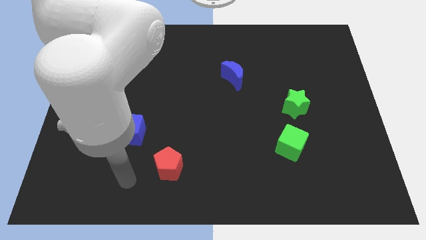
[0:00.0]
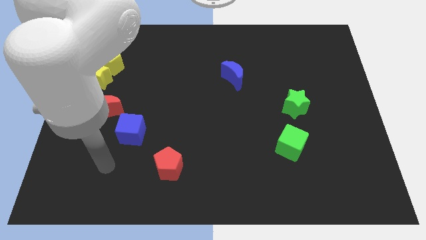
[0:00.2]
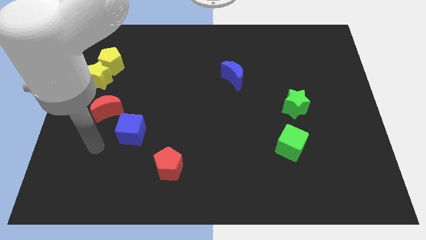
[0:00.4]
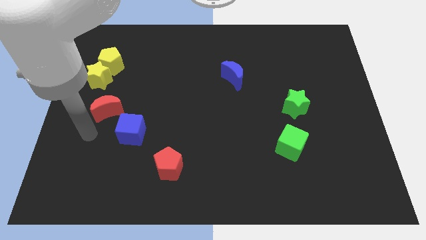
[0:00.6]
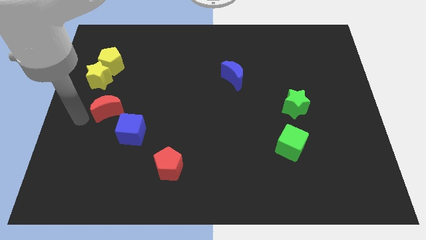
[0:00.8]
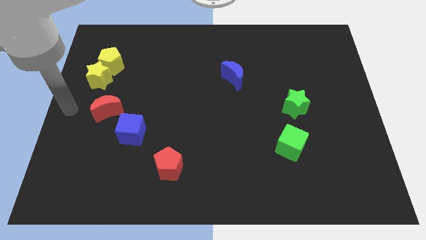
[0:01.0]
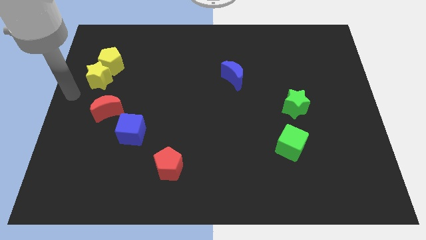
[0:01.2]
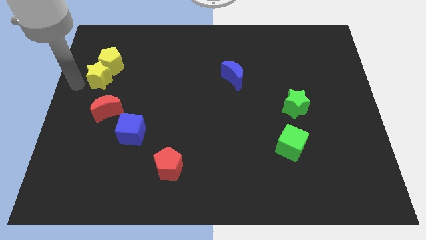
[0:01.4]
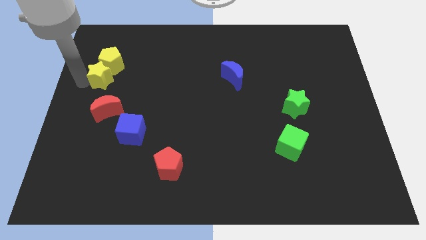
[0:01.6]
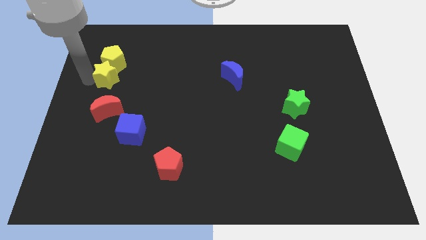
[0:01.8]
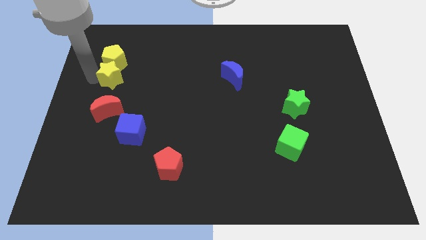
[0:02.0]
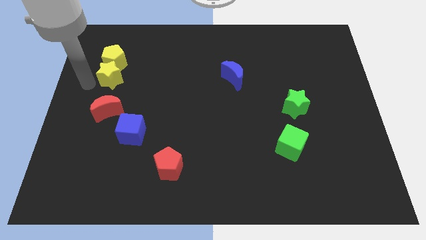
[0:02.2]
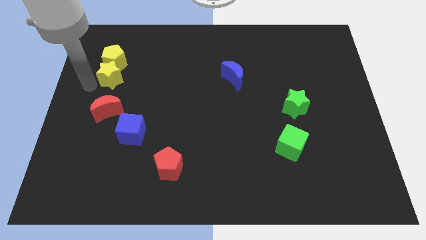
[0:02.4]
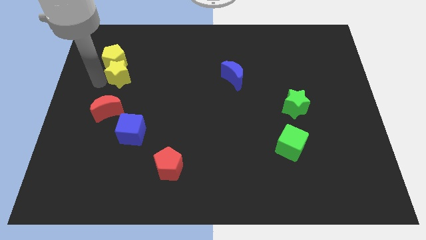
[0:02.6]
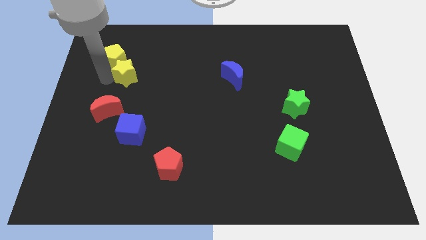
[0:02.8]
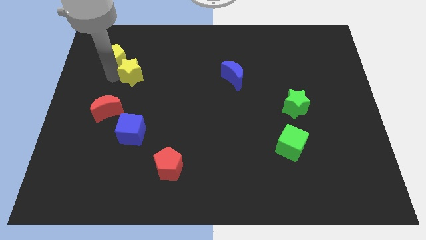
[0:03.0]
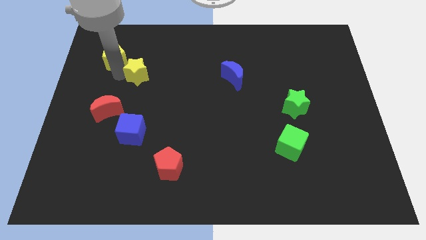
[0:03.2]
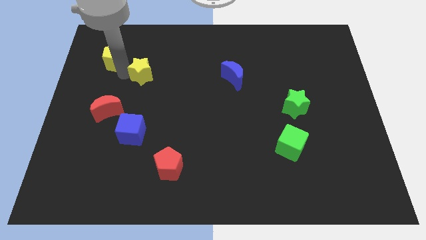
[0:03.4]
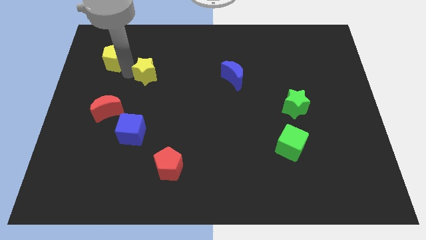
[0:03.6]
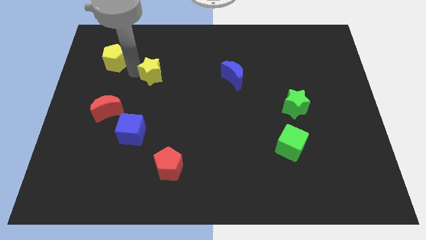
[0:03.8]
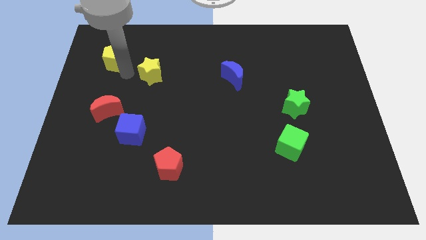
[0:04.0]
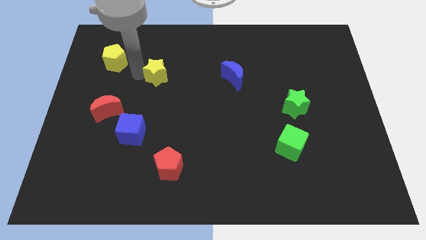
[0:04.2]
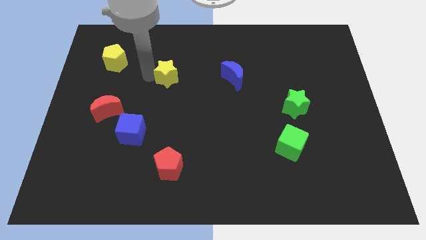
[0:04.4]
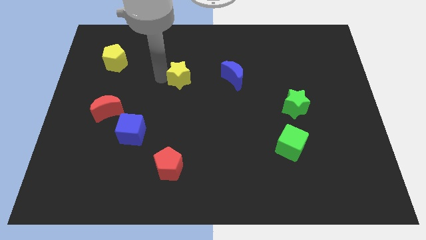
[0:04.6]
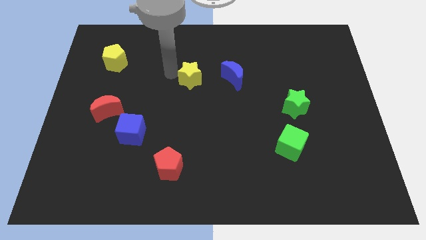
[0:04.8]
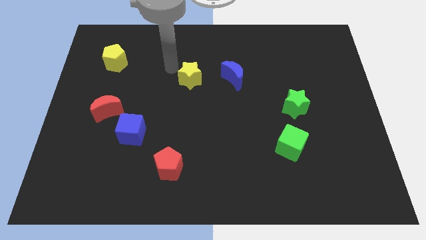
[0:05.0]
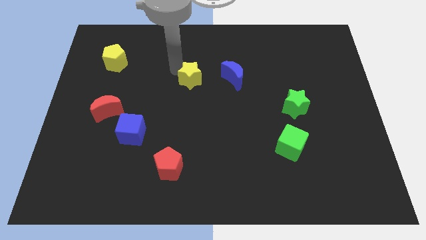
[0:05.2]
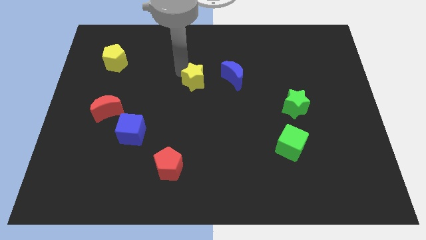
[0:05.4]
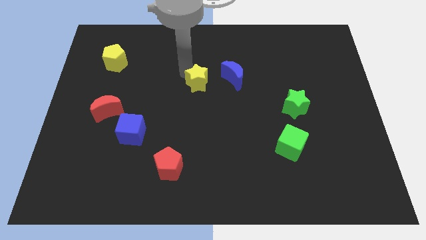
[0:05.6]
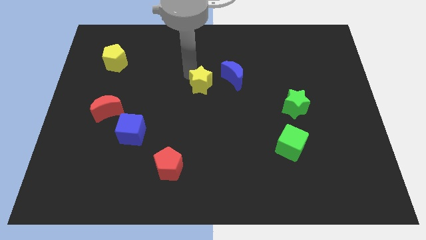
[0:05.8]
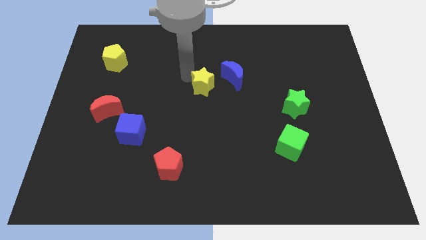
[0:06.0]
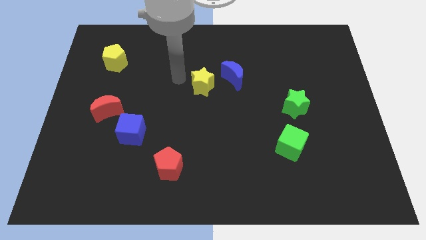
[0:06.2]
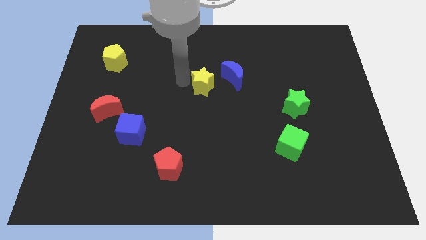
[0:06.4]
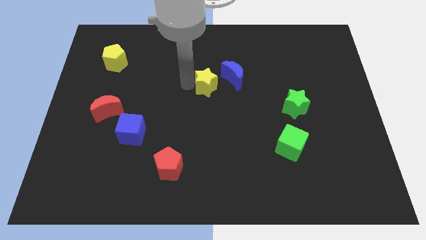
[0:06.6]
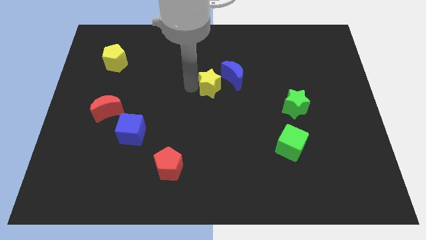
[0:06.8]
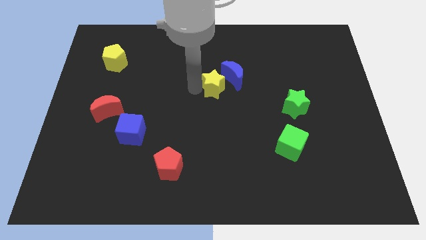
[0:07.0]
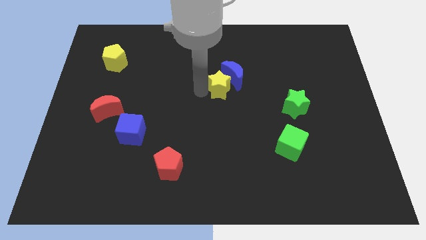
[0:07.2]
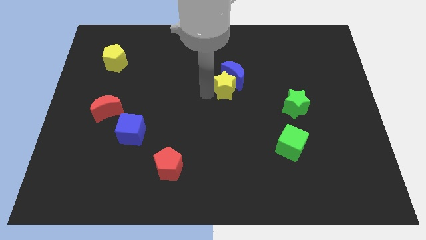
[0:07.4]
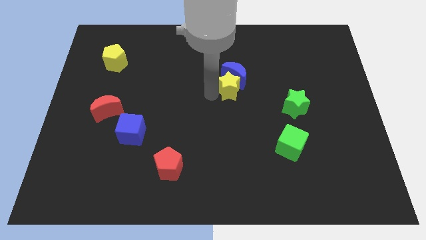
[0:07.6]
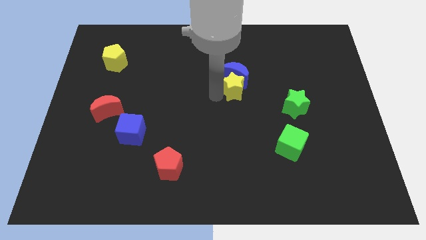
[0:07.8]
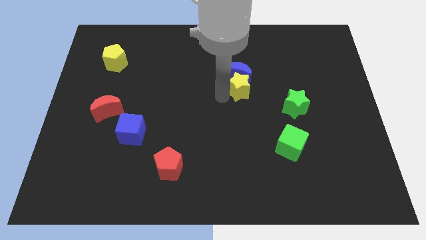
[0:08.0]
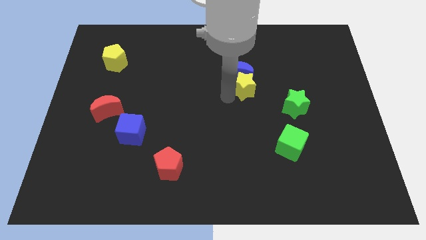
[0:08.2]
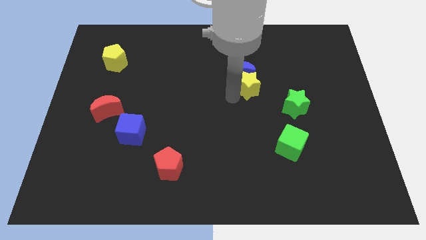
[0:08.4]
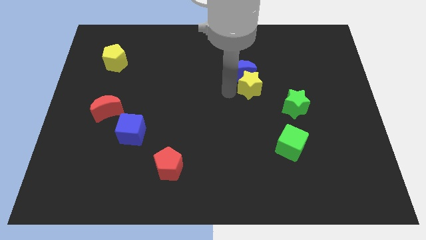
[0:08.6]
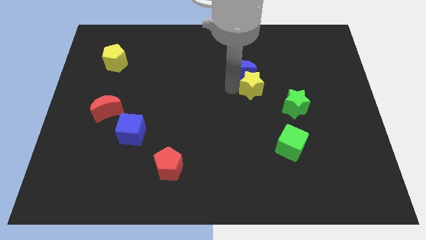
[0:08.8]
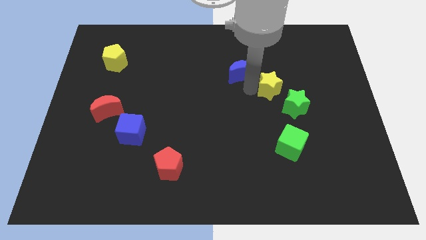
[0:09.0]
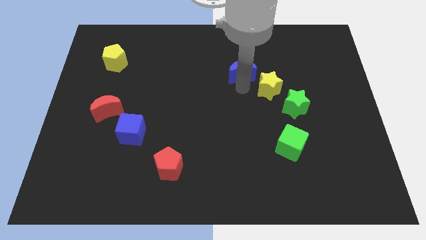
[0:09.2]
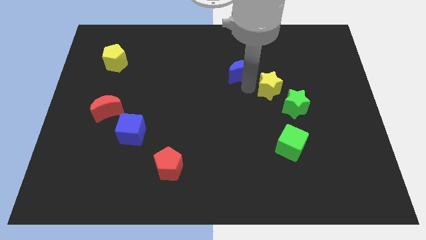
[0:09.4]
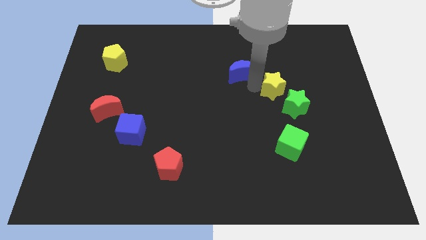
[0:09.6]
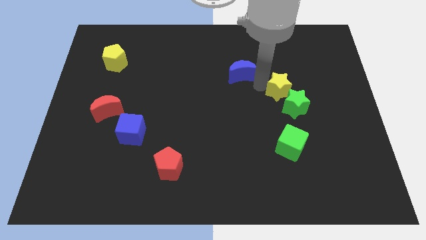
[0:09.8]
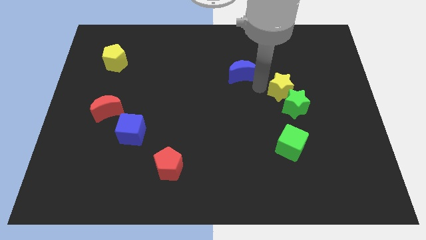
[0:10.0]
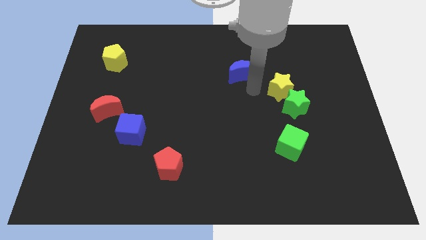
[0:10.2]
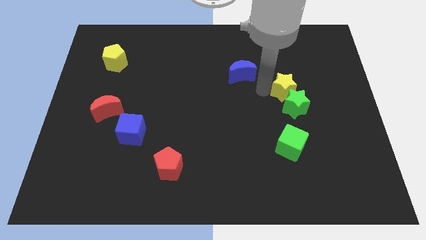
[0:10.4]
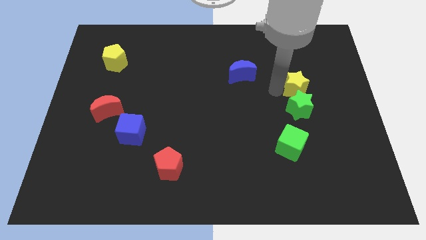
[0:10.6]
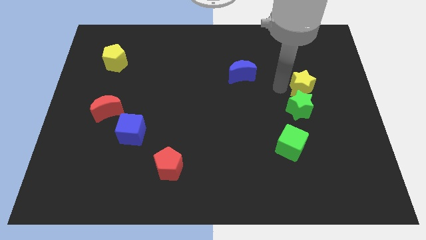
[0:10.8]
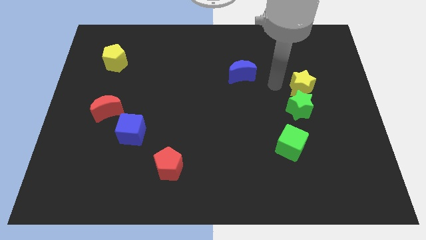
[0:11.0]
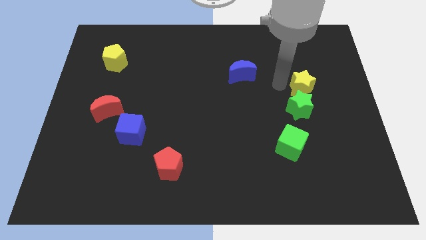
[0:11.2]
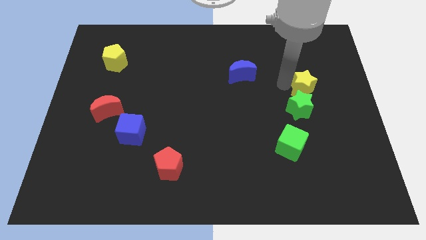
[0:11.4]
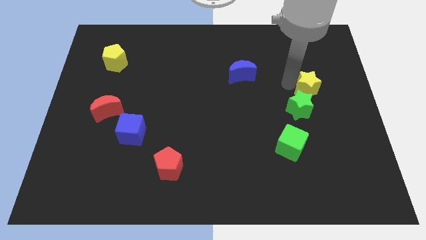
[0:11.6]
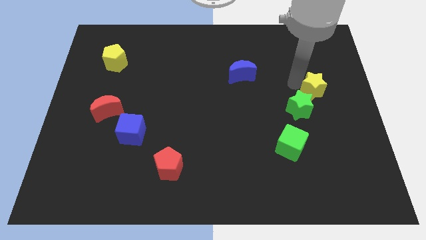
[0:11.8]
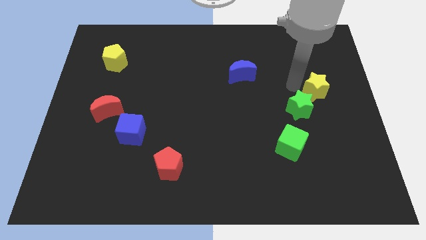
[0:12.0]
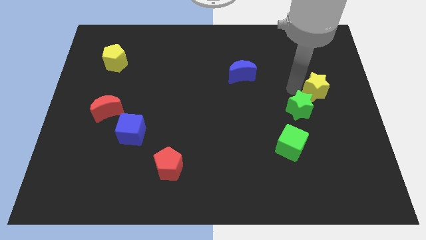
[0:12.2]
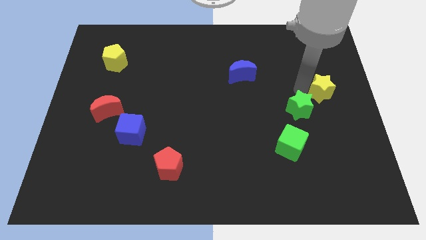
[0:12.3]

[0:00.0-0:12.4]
move the yellow star to the right side
